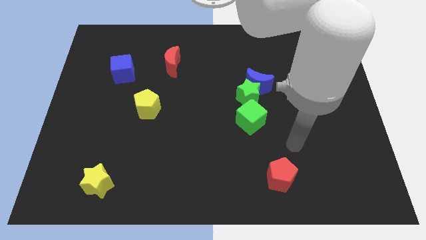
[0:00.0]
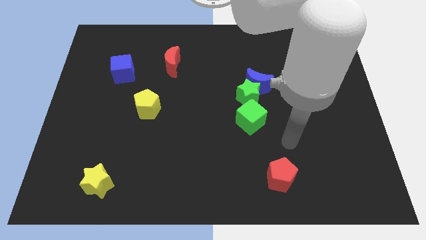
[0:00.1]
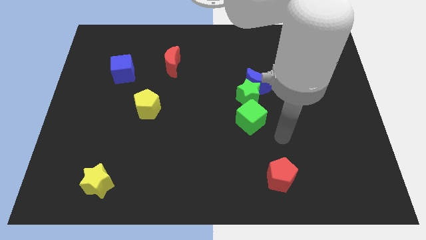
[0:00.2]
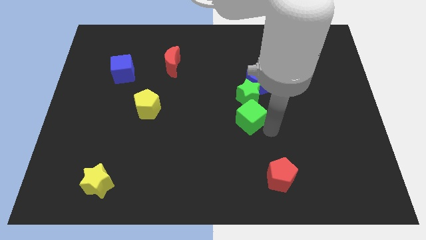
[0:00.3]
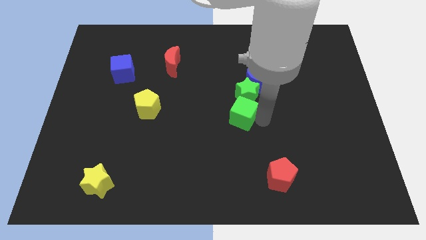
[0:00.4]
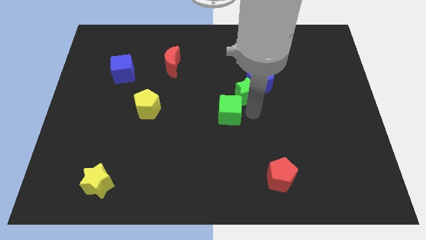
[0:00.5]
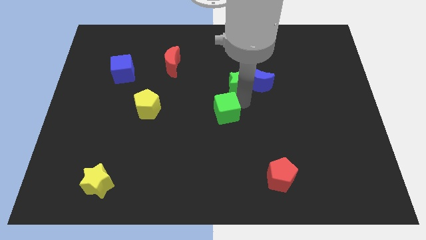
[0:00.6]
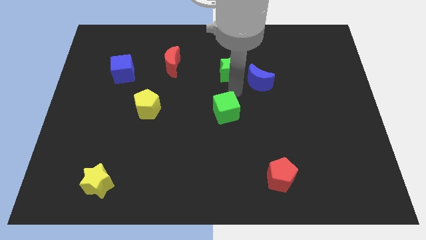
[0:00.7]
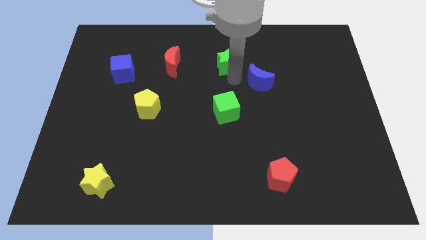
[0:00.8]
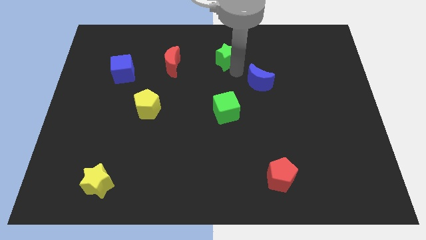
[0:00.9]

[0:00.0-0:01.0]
pull the blue moon apart from the green star

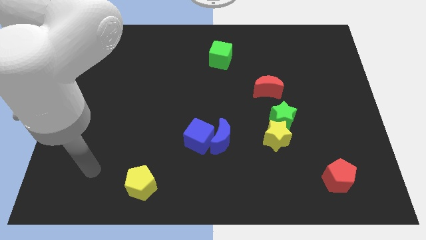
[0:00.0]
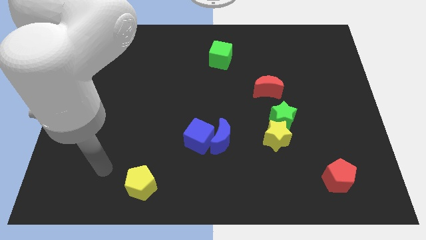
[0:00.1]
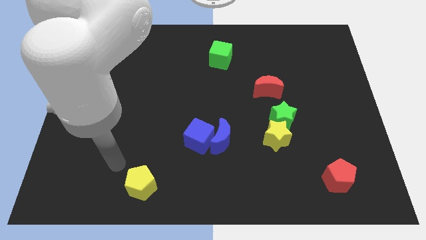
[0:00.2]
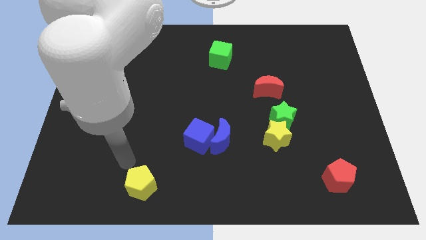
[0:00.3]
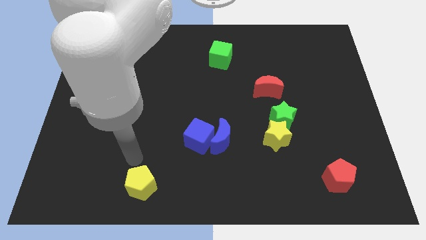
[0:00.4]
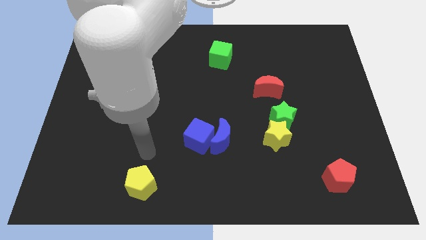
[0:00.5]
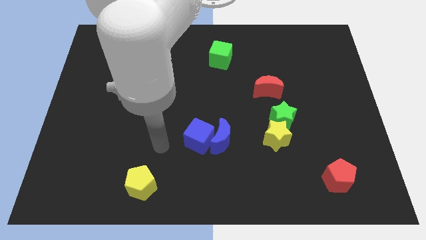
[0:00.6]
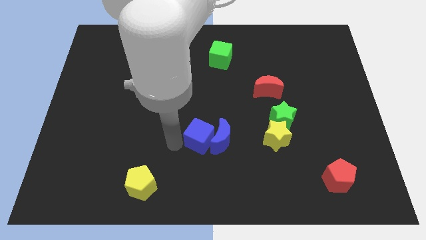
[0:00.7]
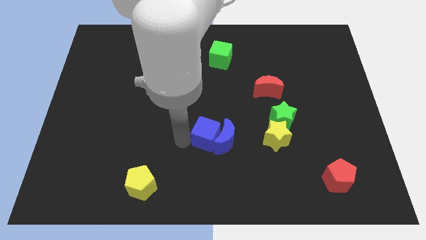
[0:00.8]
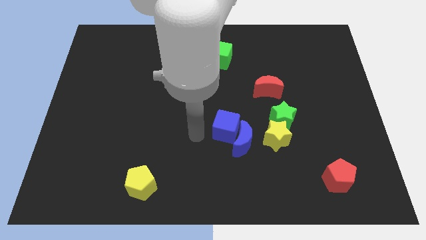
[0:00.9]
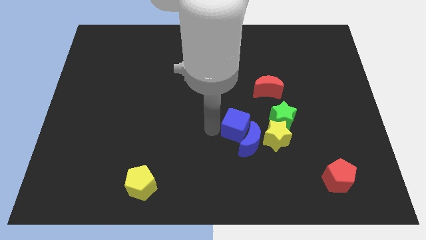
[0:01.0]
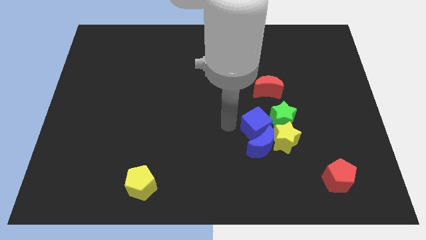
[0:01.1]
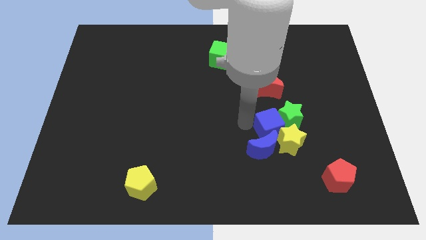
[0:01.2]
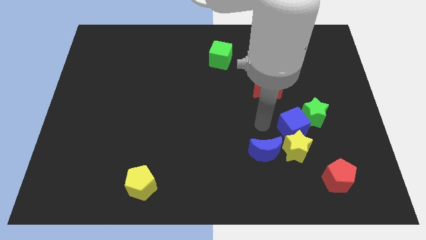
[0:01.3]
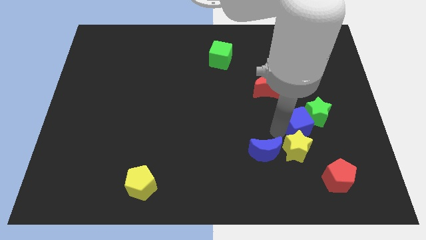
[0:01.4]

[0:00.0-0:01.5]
separate the blue moon from the blue cube

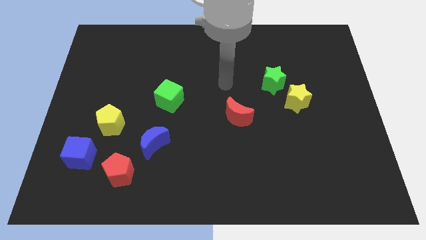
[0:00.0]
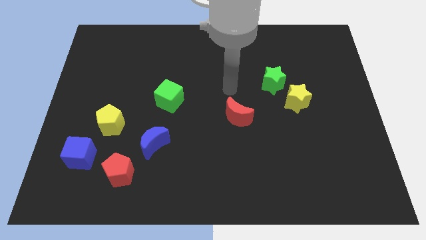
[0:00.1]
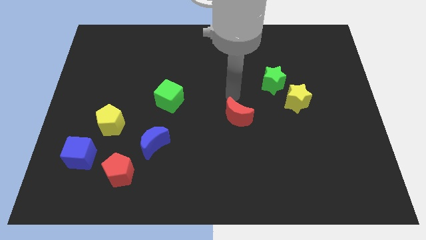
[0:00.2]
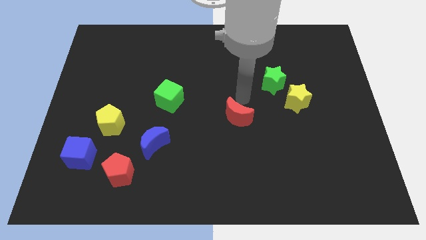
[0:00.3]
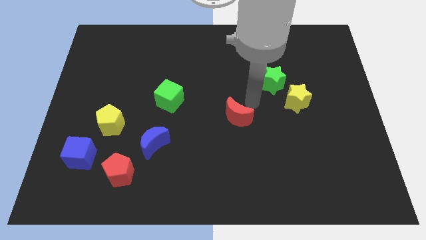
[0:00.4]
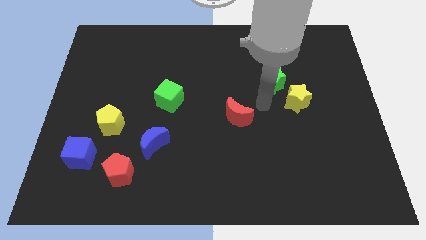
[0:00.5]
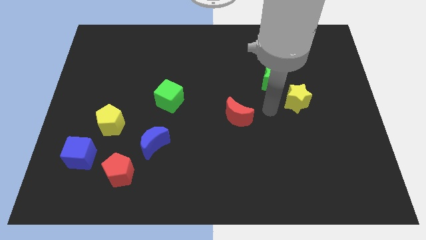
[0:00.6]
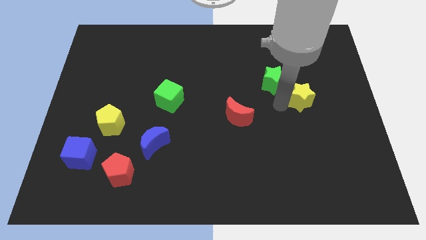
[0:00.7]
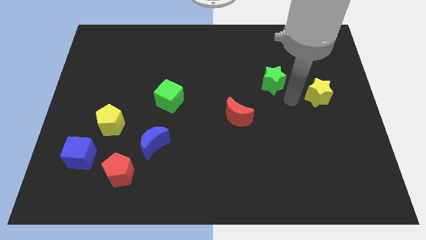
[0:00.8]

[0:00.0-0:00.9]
separate the green star from the yellow star

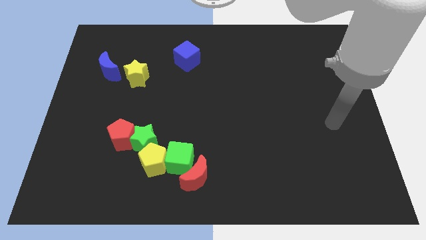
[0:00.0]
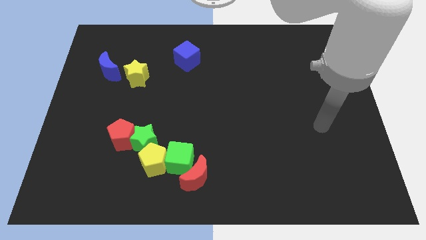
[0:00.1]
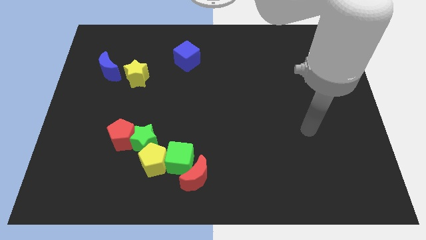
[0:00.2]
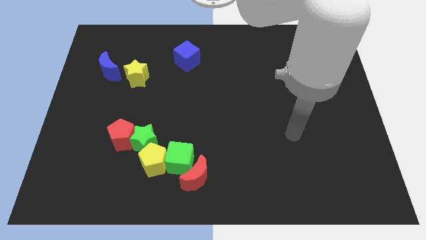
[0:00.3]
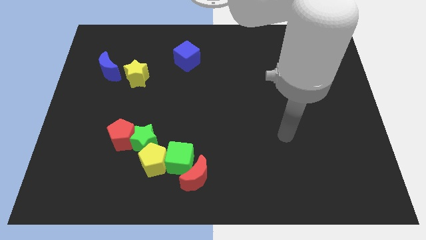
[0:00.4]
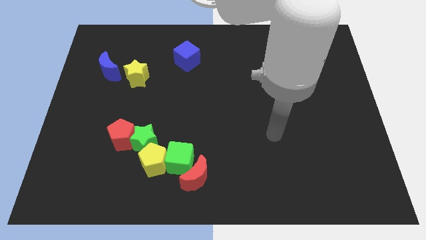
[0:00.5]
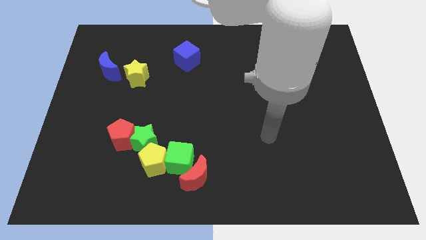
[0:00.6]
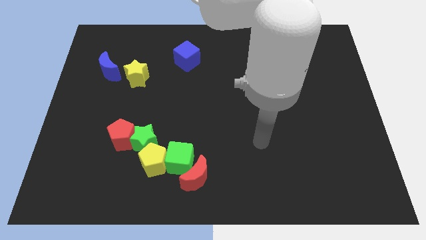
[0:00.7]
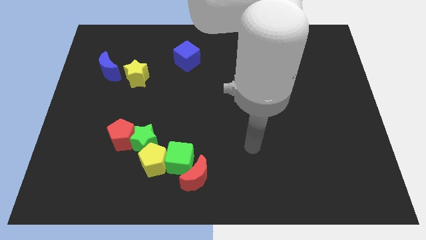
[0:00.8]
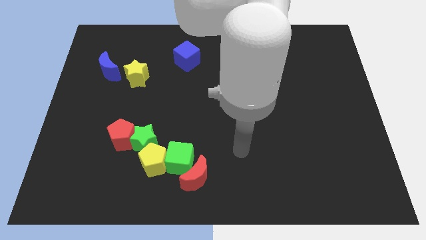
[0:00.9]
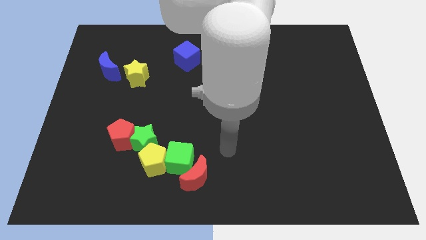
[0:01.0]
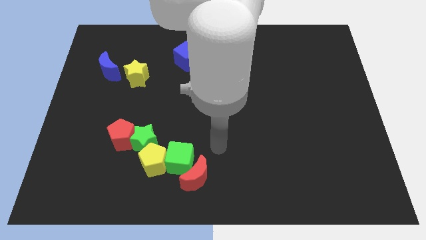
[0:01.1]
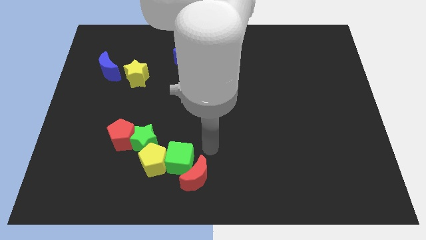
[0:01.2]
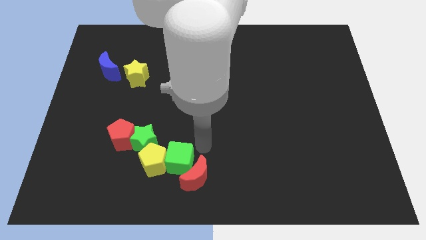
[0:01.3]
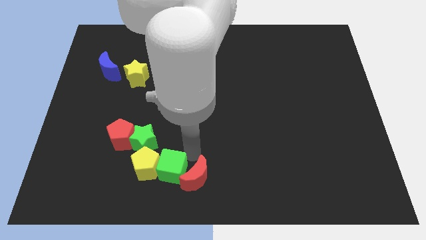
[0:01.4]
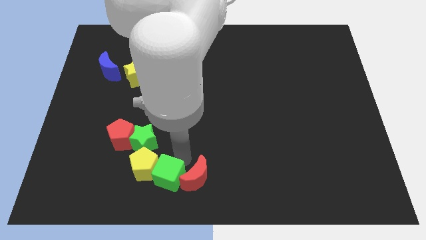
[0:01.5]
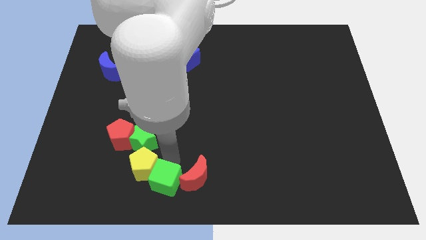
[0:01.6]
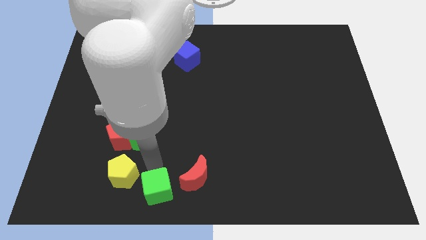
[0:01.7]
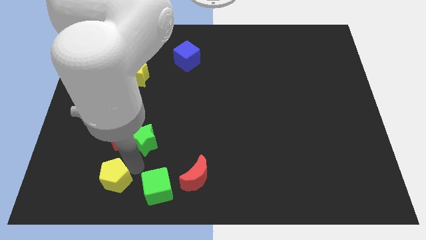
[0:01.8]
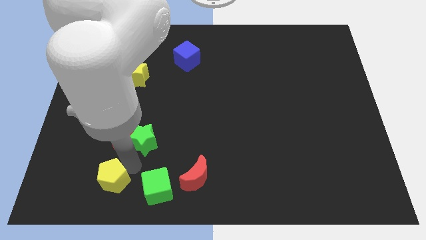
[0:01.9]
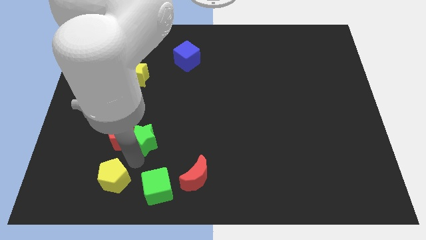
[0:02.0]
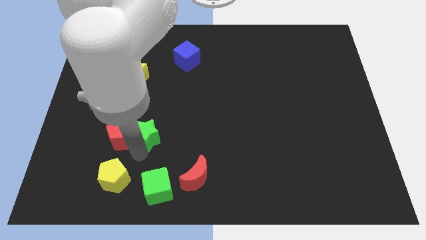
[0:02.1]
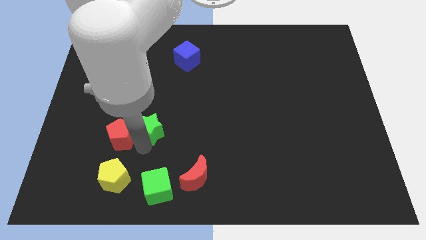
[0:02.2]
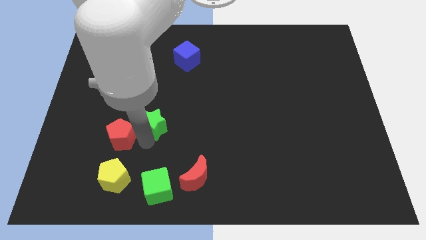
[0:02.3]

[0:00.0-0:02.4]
separate the green star from the clump

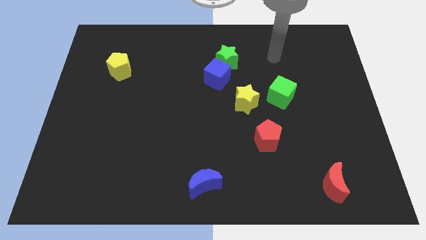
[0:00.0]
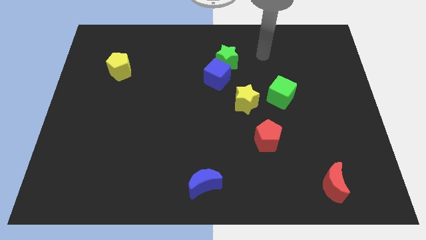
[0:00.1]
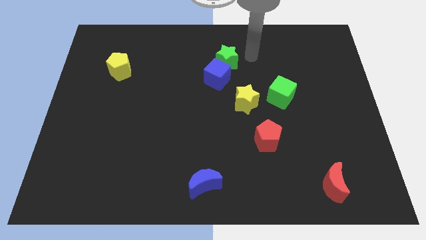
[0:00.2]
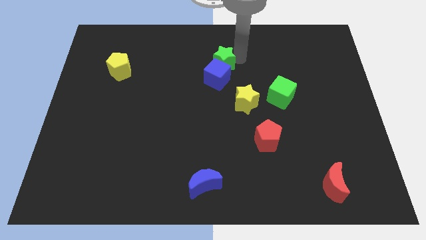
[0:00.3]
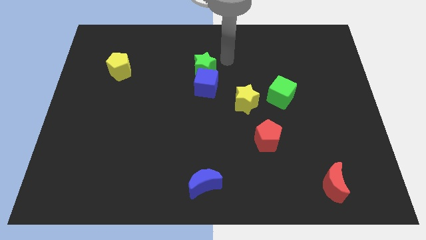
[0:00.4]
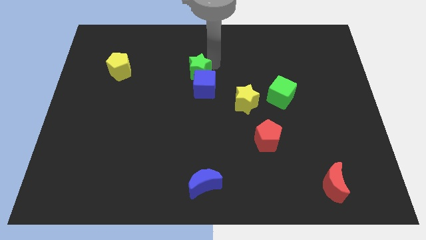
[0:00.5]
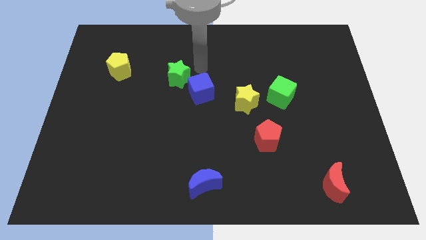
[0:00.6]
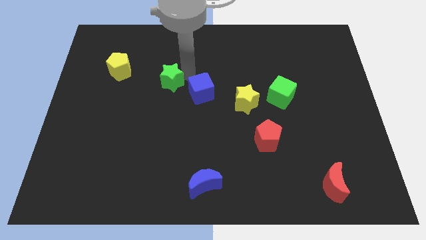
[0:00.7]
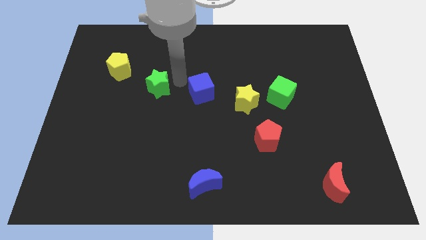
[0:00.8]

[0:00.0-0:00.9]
move the blue cube away from the green star

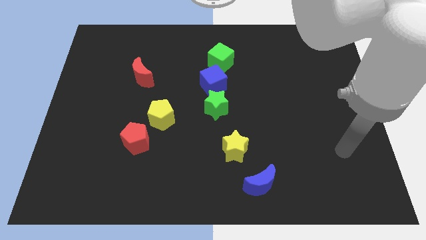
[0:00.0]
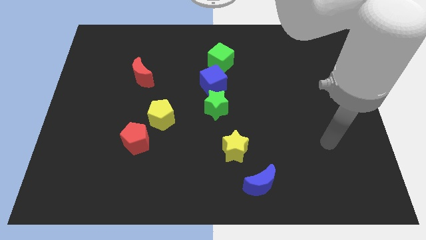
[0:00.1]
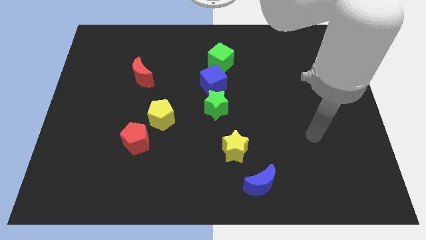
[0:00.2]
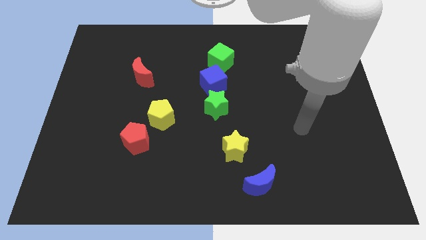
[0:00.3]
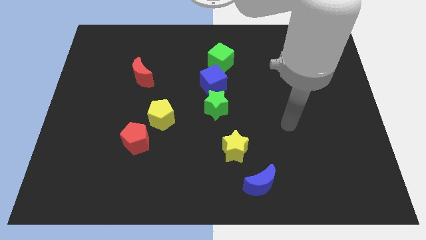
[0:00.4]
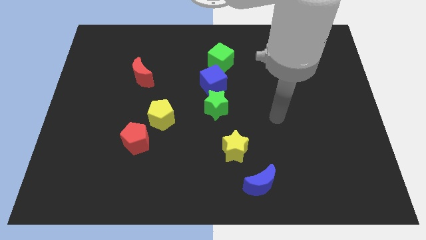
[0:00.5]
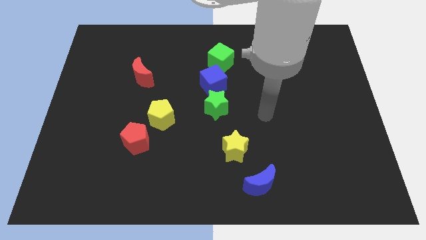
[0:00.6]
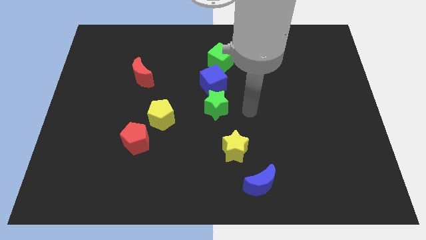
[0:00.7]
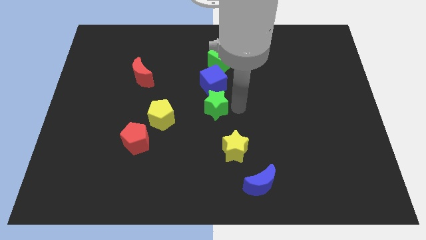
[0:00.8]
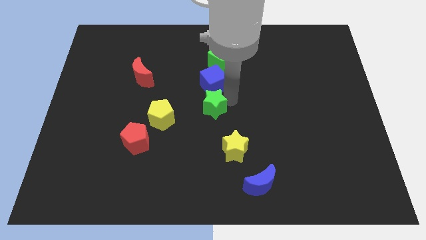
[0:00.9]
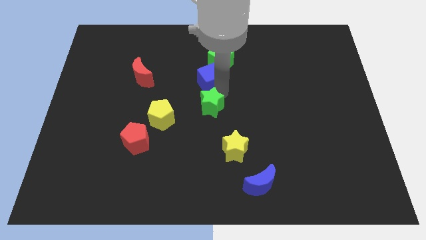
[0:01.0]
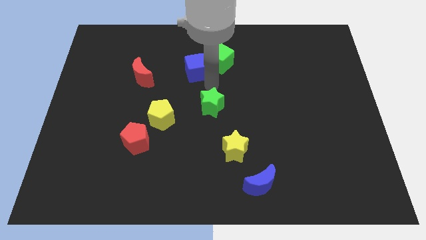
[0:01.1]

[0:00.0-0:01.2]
move the green star away from the blue cube

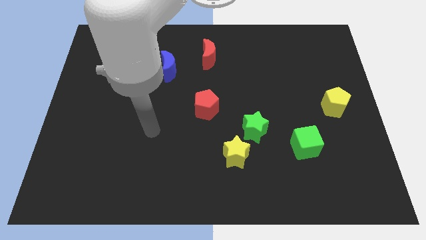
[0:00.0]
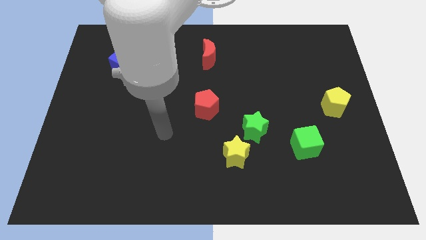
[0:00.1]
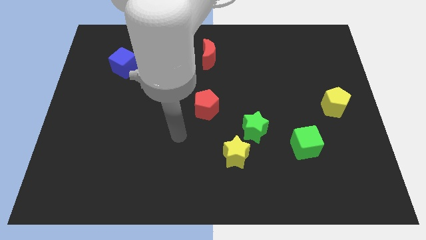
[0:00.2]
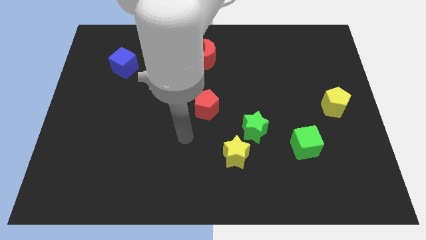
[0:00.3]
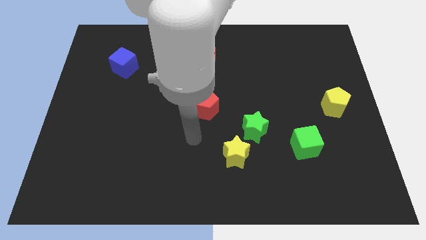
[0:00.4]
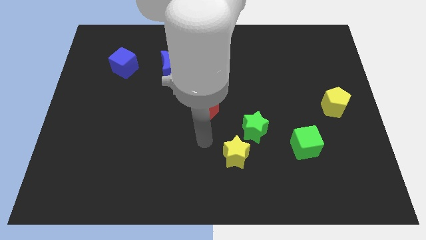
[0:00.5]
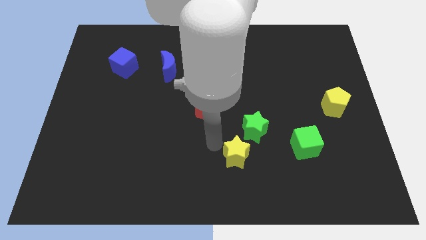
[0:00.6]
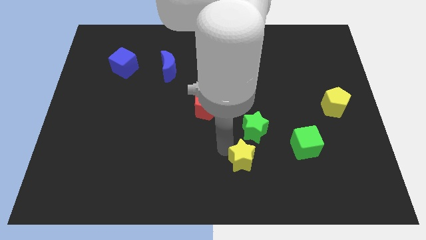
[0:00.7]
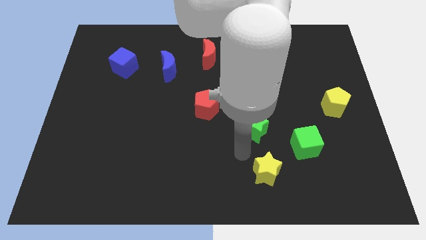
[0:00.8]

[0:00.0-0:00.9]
move the green star away from the yellow star

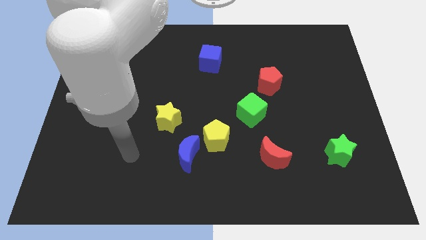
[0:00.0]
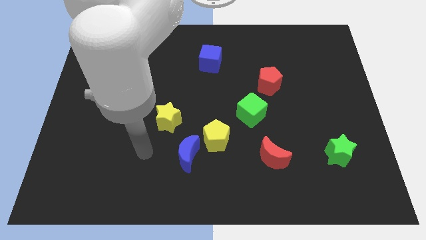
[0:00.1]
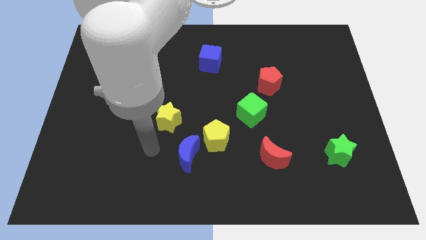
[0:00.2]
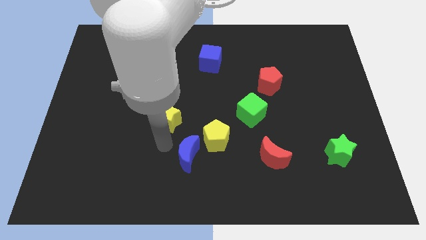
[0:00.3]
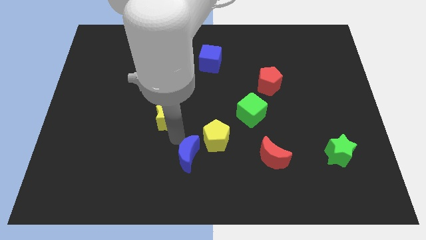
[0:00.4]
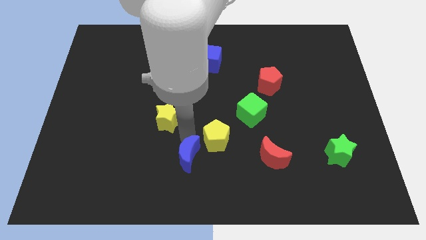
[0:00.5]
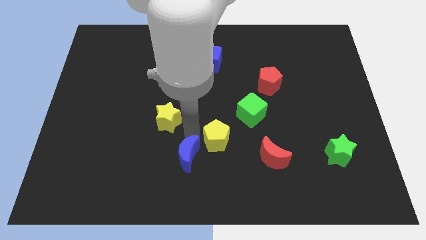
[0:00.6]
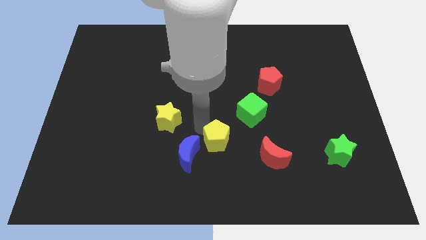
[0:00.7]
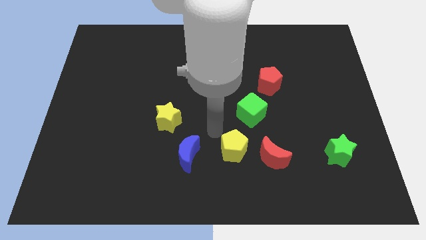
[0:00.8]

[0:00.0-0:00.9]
move the blue moon away from the yellow pentagon
